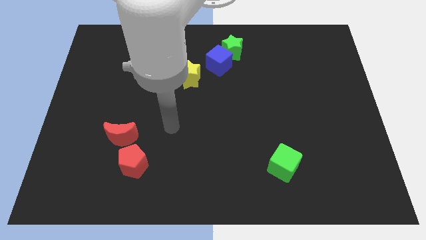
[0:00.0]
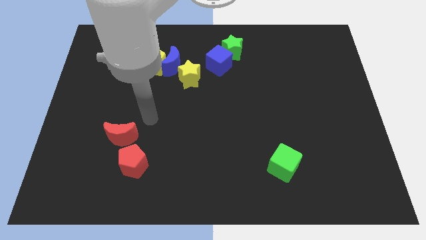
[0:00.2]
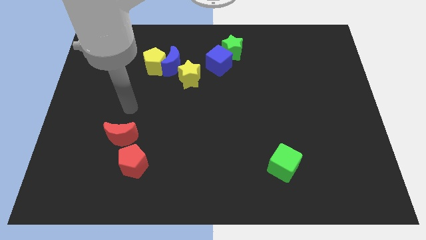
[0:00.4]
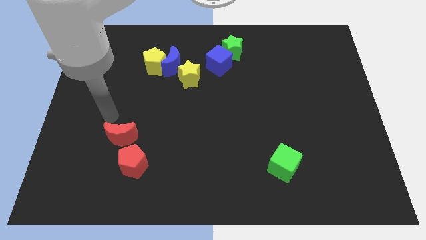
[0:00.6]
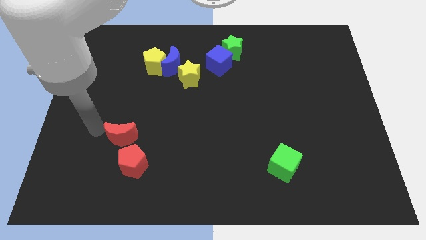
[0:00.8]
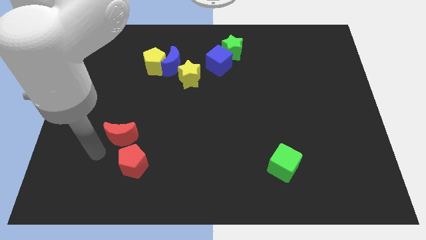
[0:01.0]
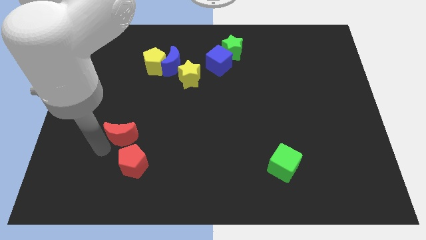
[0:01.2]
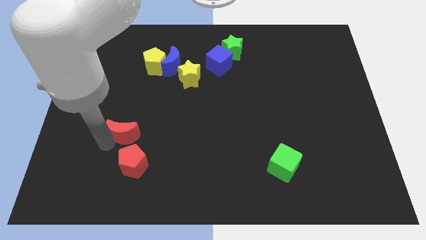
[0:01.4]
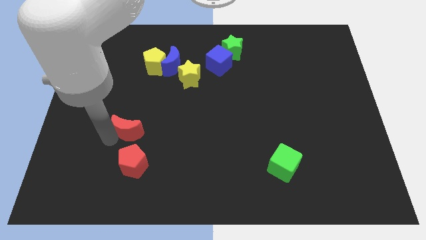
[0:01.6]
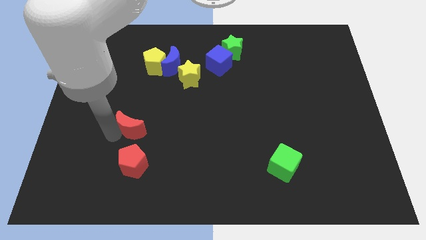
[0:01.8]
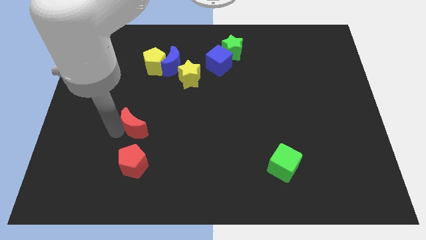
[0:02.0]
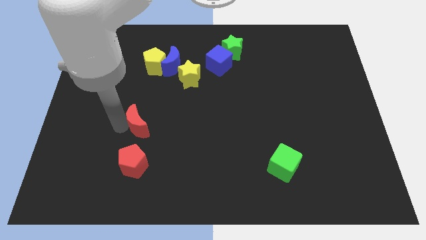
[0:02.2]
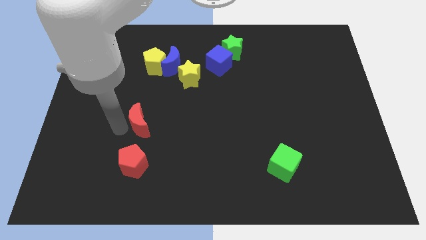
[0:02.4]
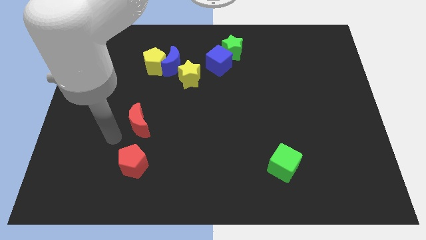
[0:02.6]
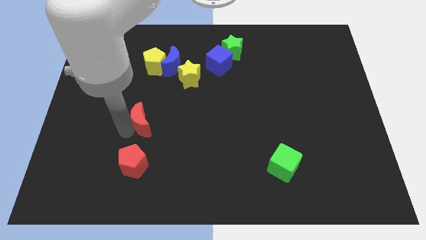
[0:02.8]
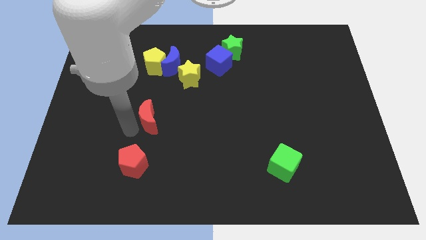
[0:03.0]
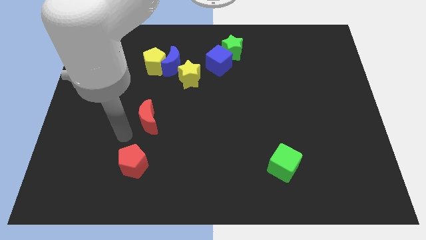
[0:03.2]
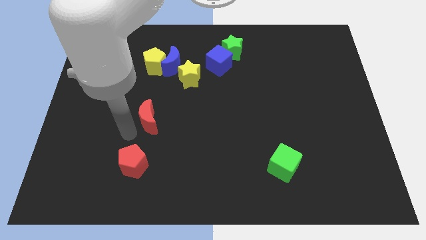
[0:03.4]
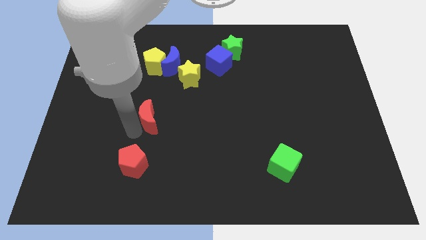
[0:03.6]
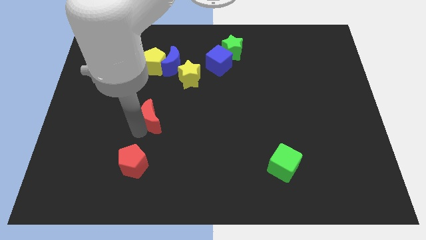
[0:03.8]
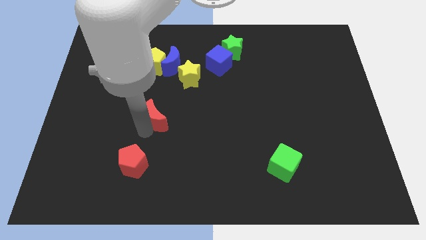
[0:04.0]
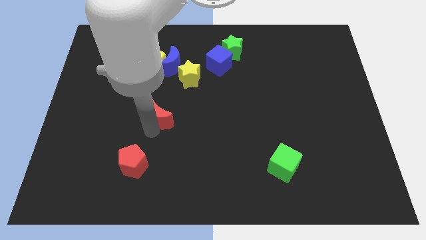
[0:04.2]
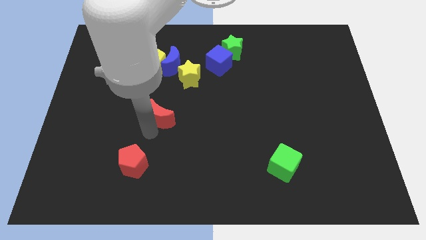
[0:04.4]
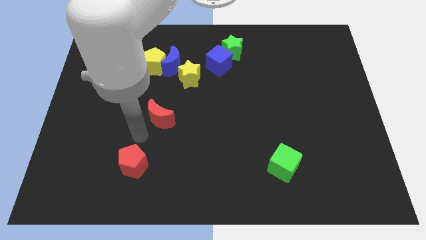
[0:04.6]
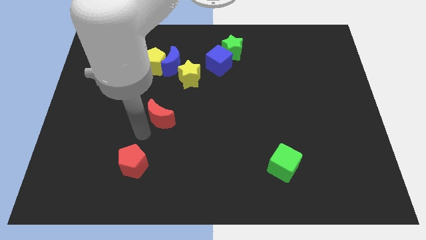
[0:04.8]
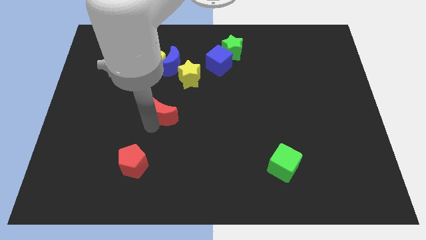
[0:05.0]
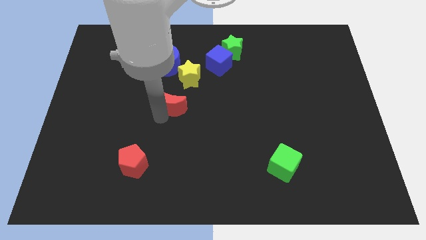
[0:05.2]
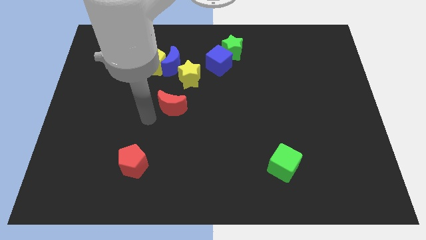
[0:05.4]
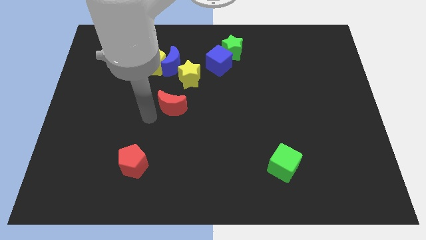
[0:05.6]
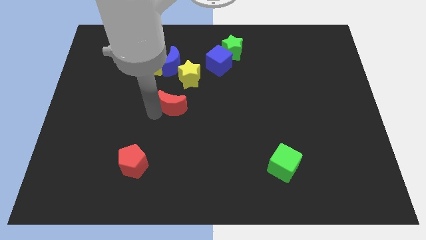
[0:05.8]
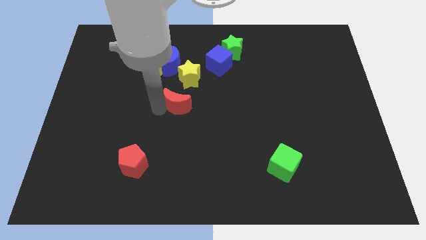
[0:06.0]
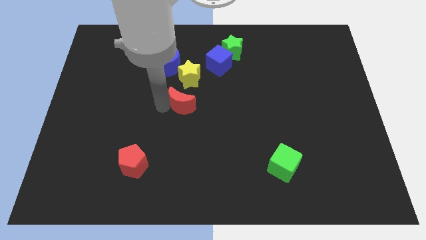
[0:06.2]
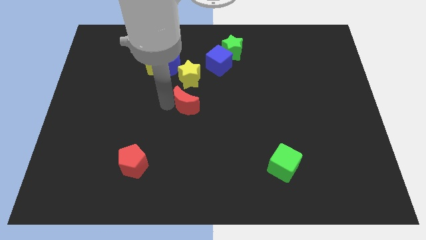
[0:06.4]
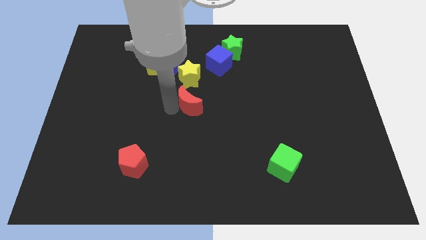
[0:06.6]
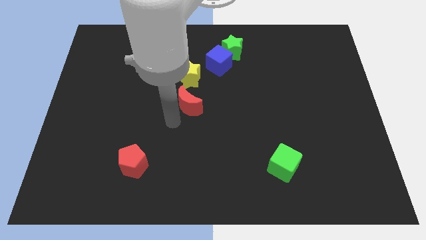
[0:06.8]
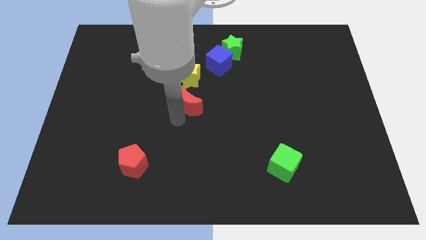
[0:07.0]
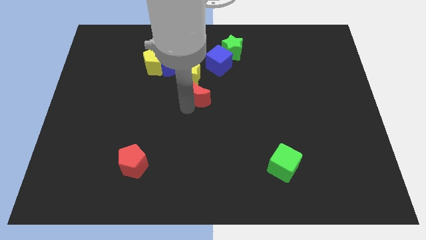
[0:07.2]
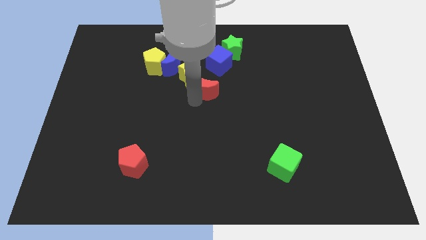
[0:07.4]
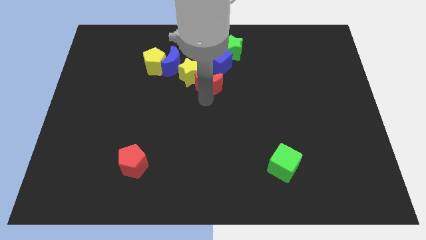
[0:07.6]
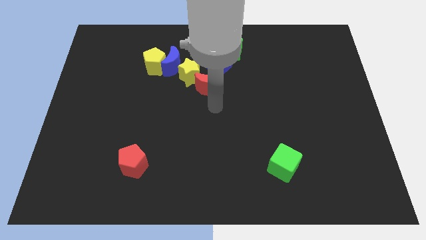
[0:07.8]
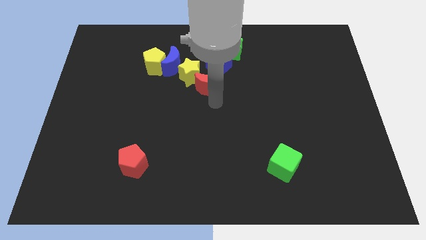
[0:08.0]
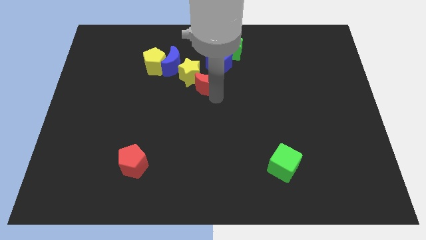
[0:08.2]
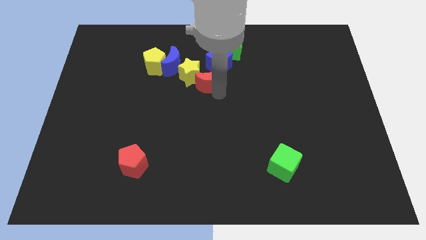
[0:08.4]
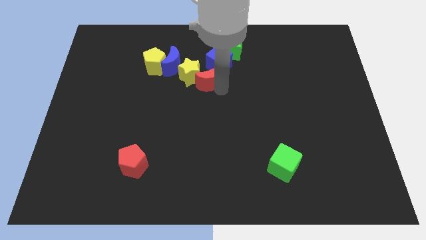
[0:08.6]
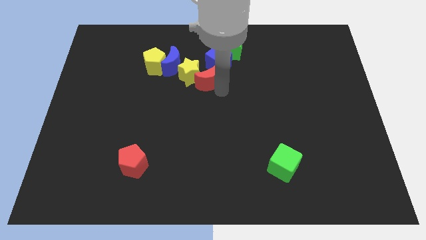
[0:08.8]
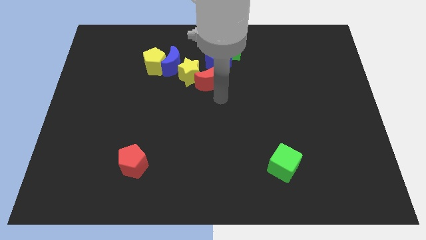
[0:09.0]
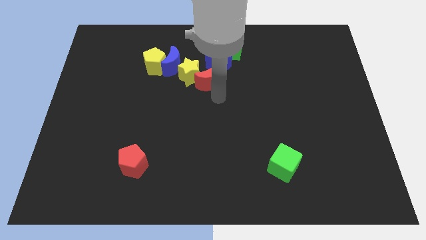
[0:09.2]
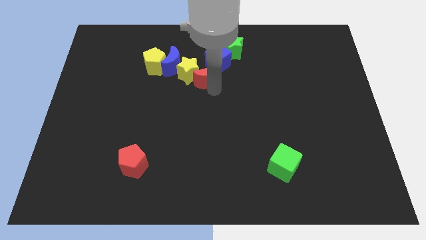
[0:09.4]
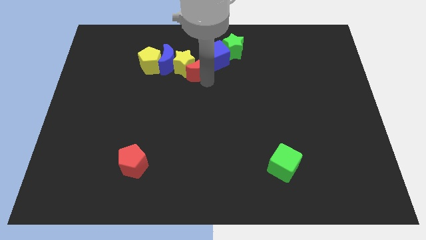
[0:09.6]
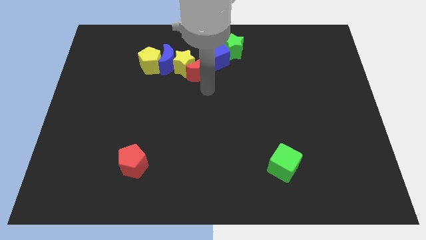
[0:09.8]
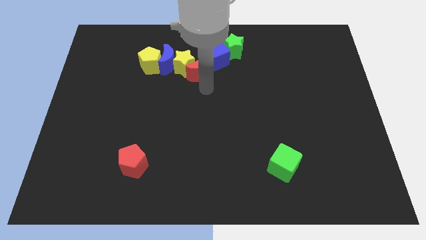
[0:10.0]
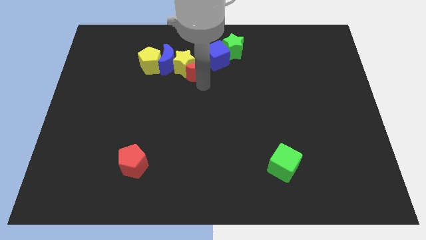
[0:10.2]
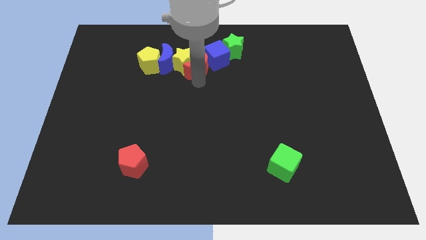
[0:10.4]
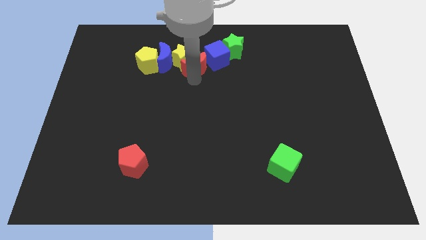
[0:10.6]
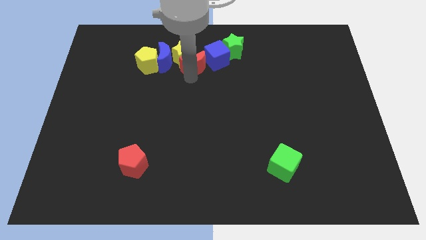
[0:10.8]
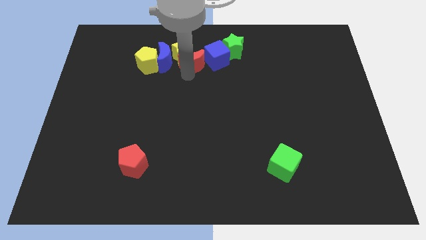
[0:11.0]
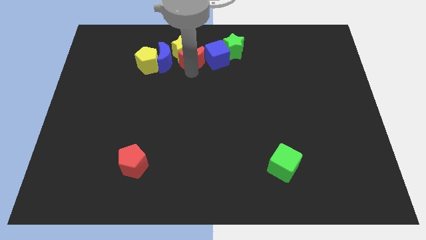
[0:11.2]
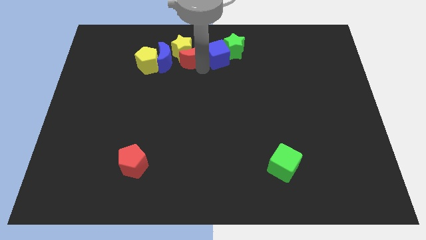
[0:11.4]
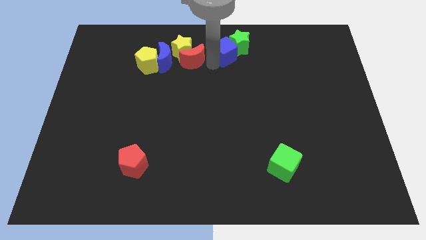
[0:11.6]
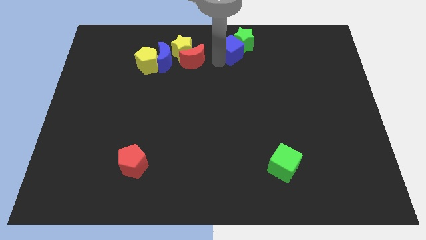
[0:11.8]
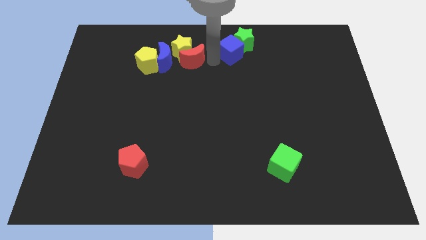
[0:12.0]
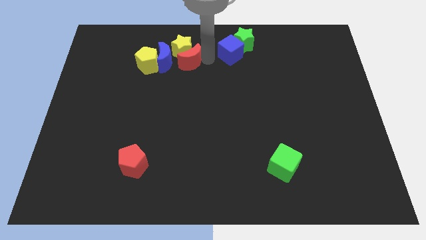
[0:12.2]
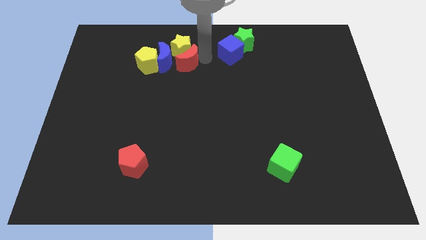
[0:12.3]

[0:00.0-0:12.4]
move the red moon to the blue moon

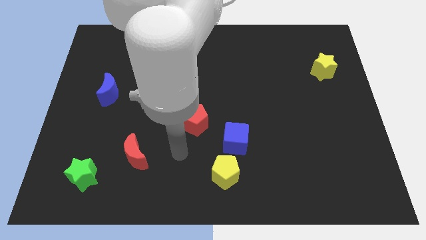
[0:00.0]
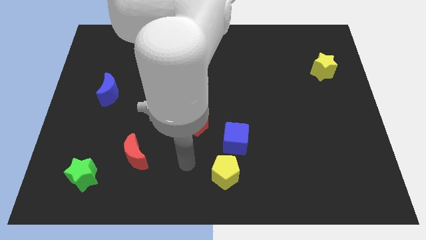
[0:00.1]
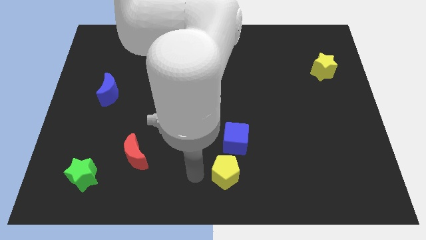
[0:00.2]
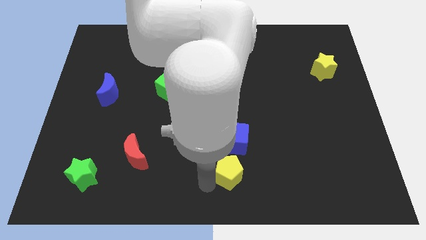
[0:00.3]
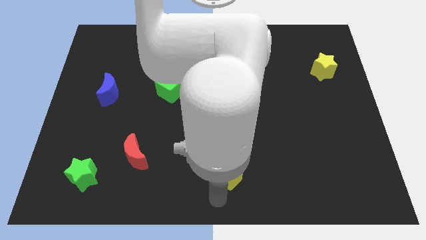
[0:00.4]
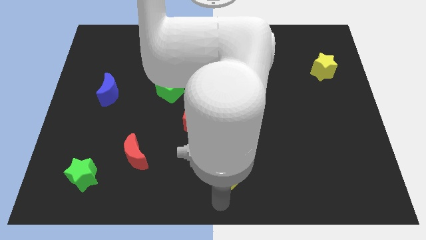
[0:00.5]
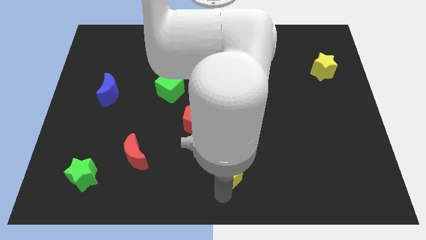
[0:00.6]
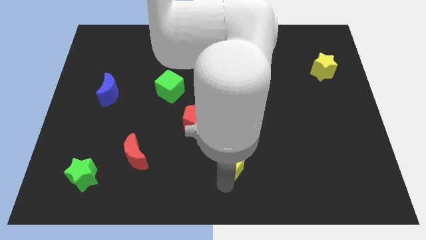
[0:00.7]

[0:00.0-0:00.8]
move the yellow pentagon to the blue cube
